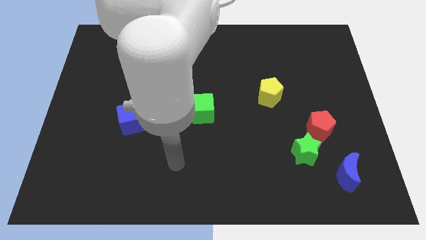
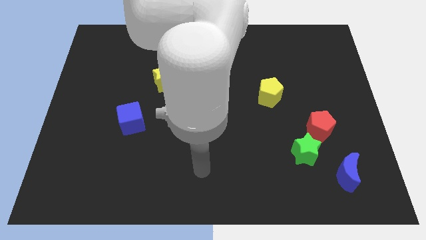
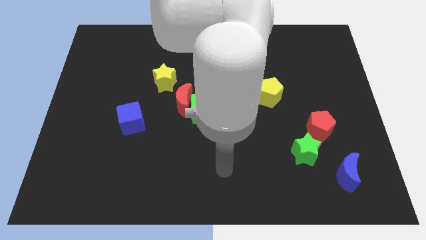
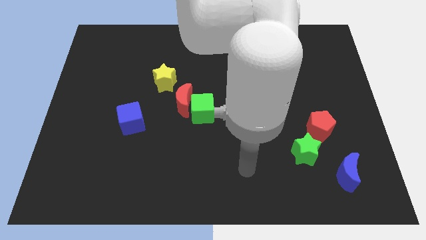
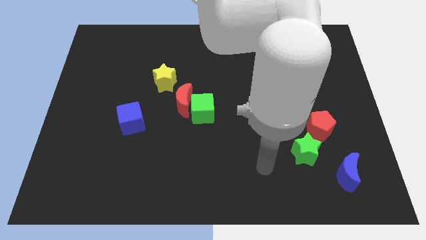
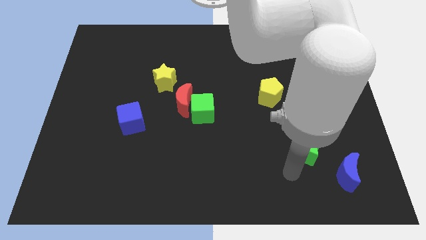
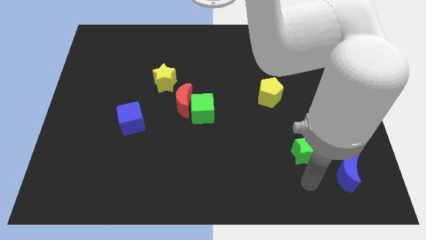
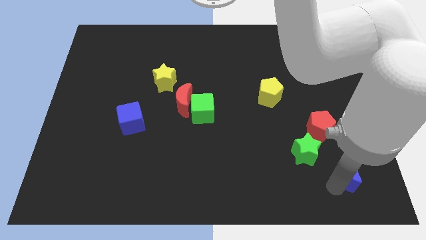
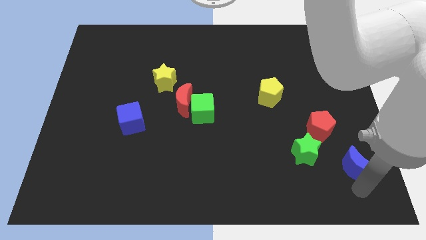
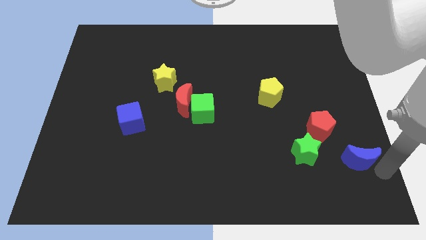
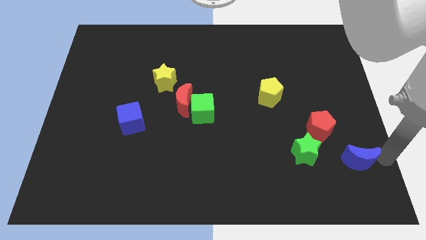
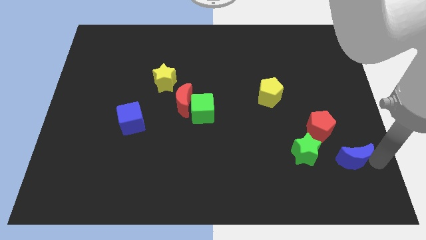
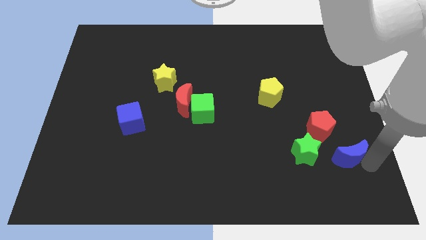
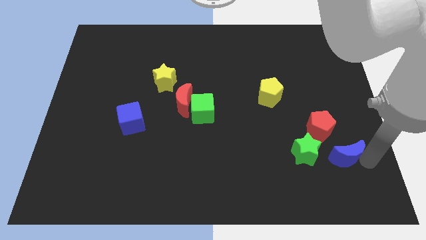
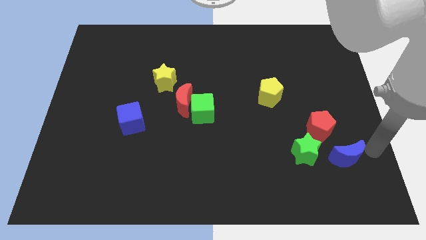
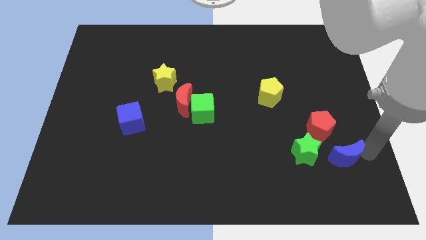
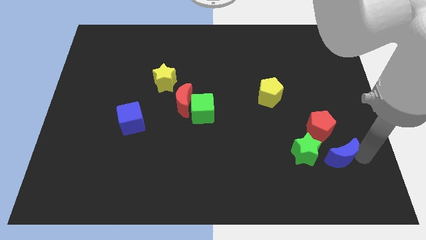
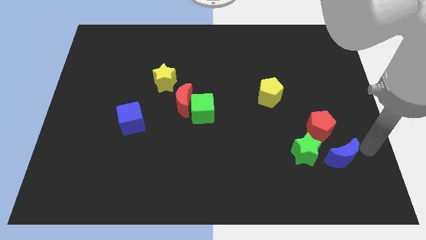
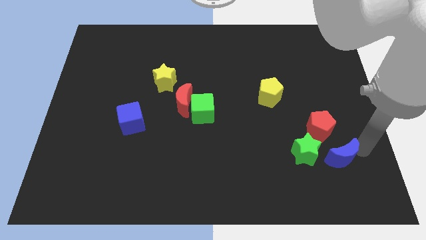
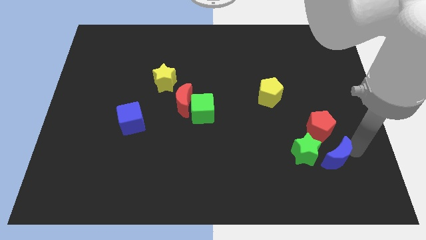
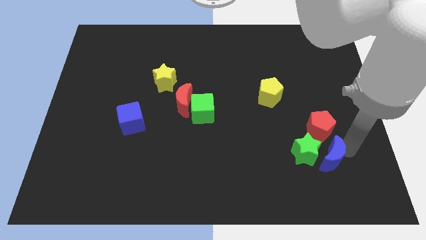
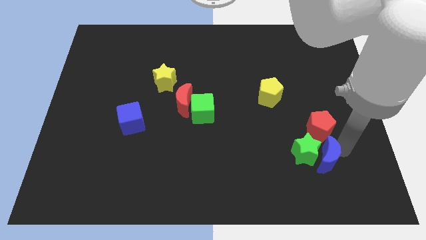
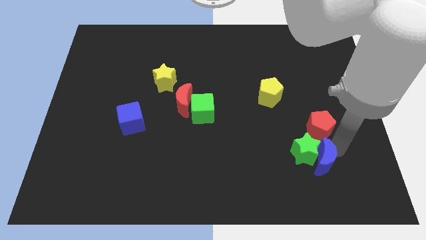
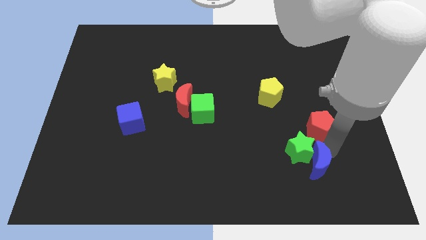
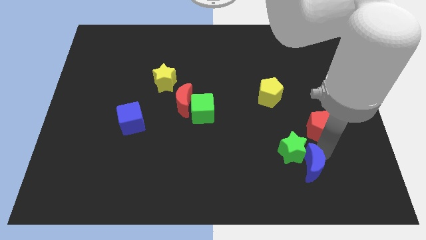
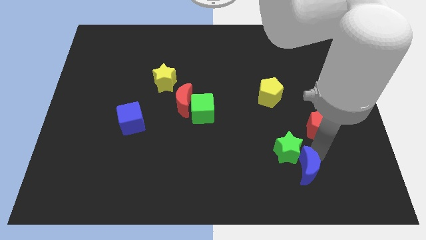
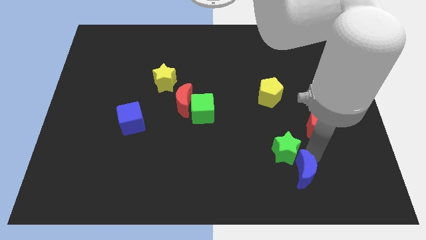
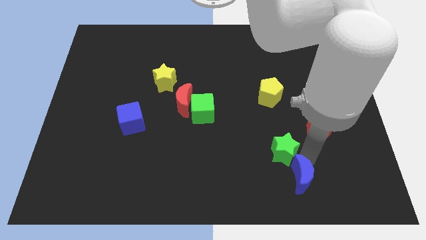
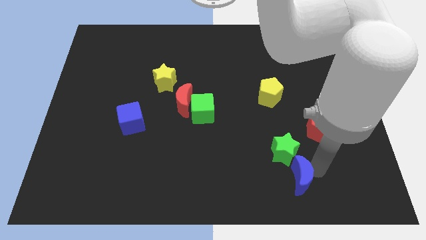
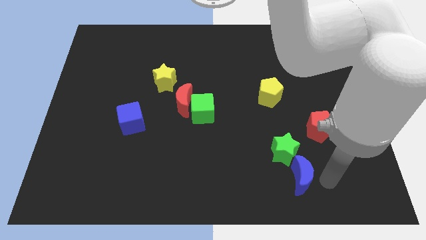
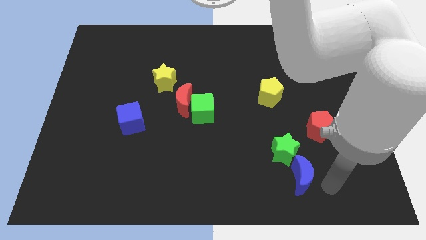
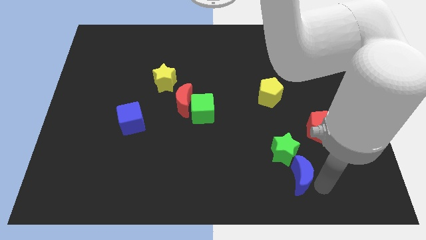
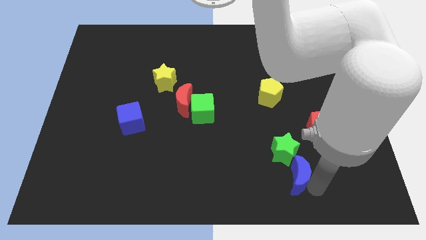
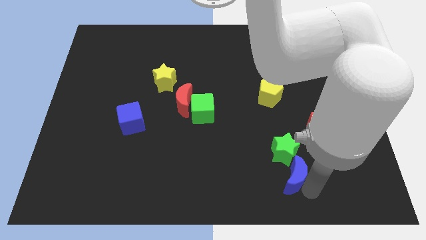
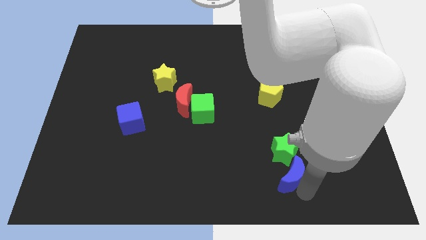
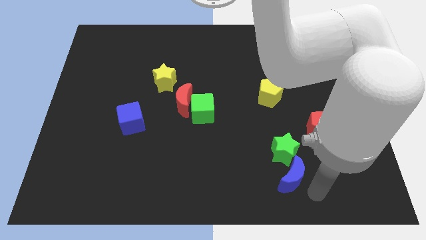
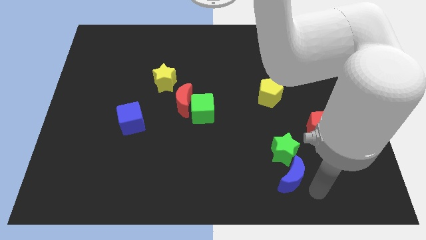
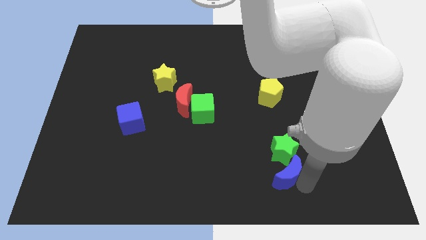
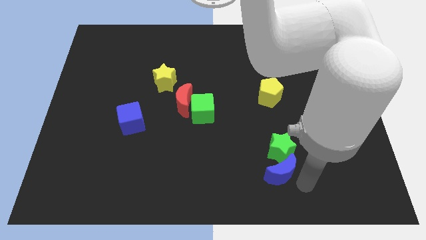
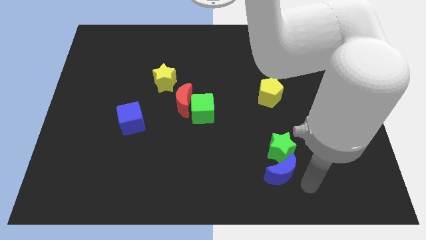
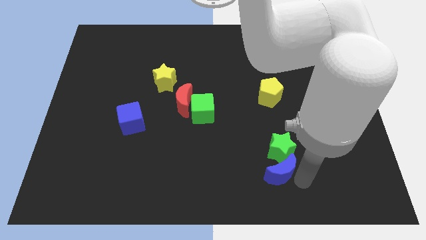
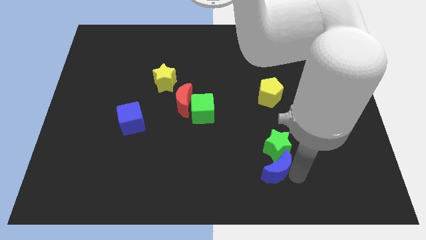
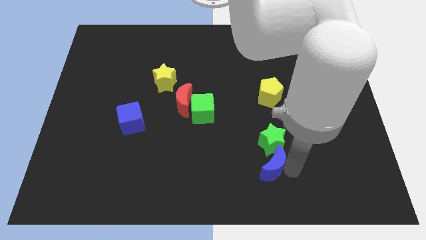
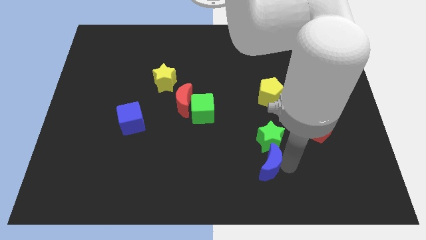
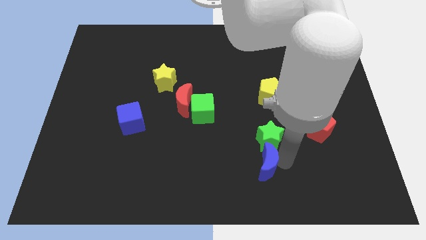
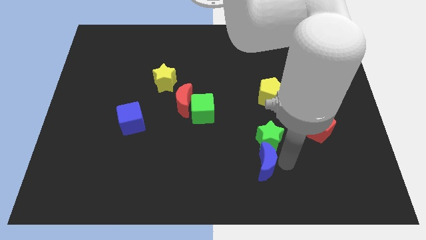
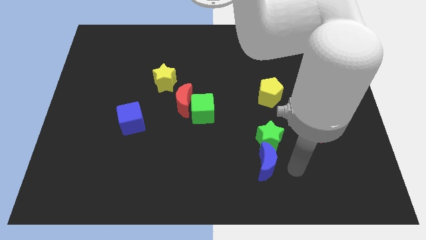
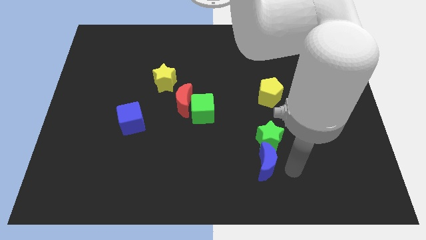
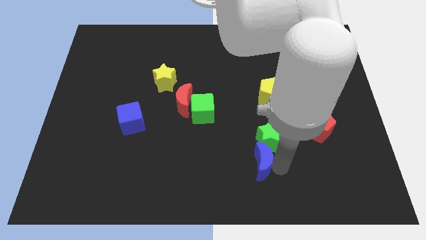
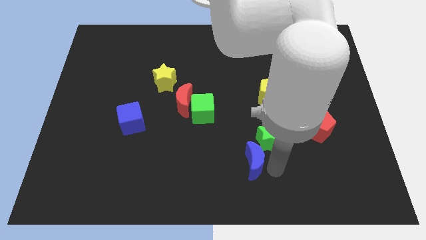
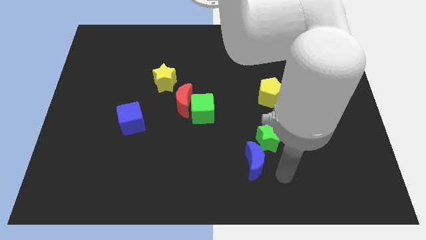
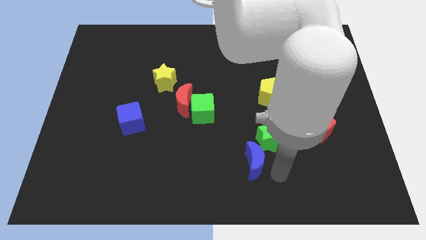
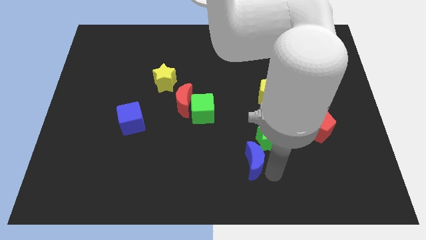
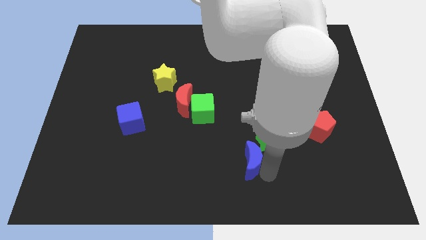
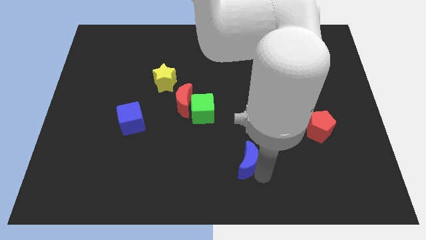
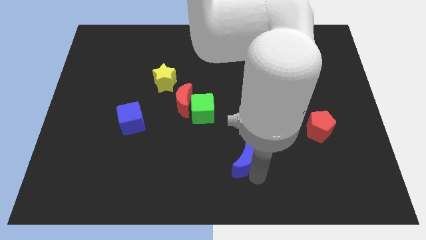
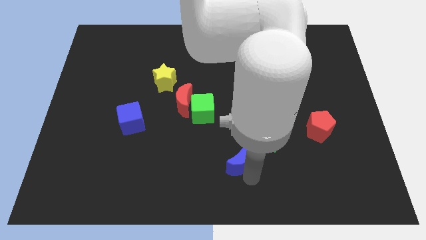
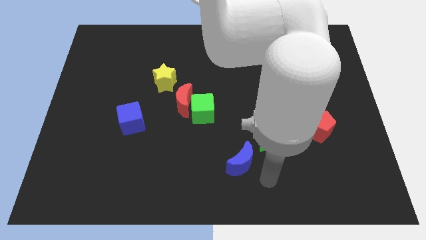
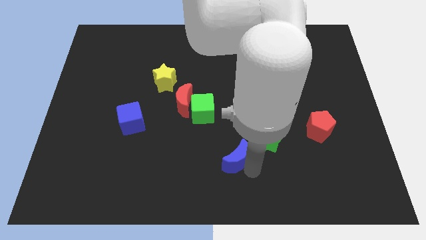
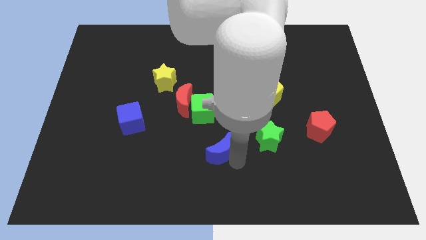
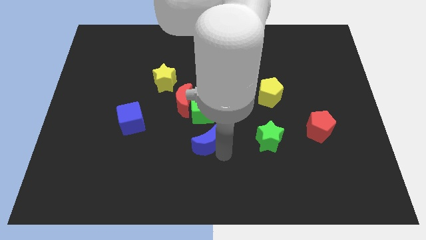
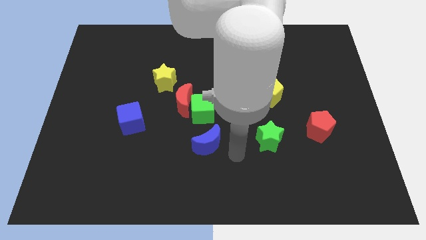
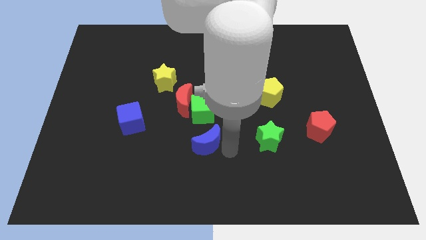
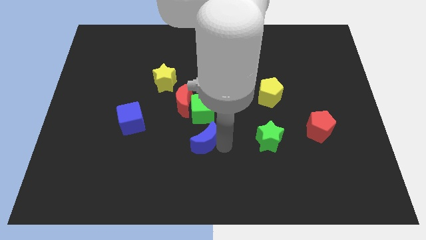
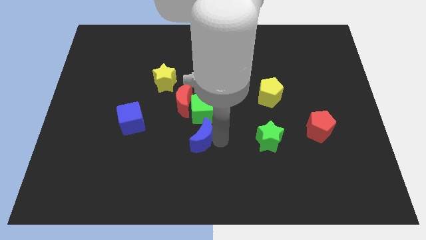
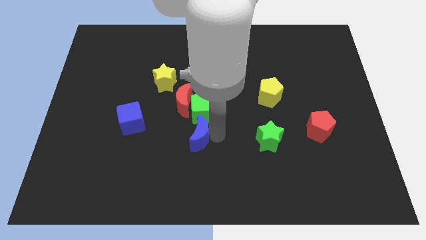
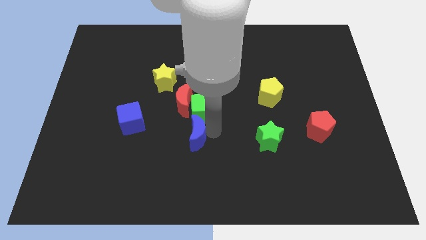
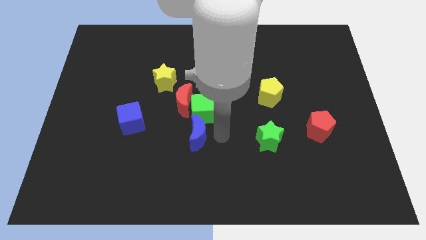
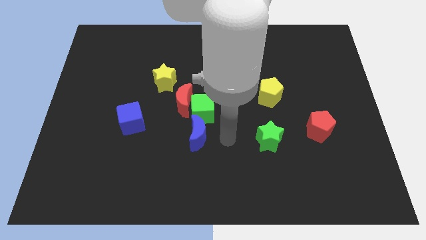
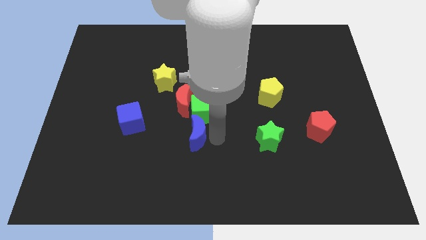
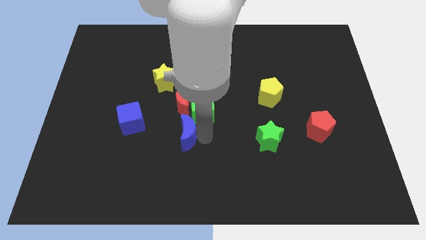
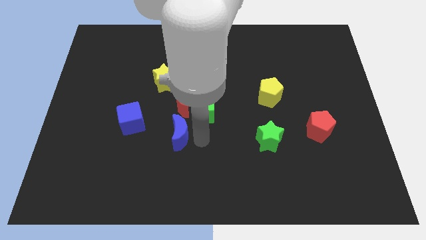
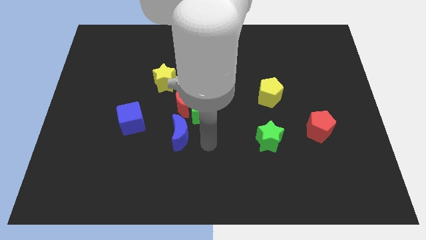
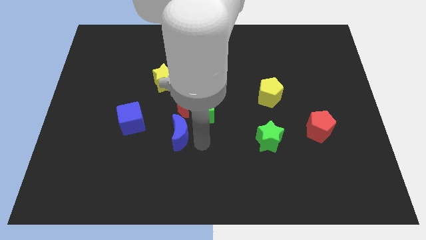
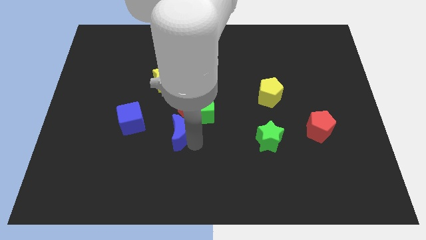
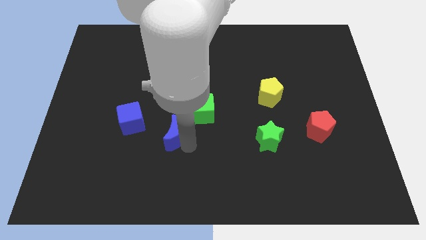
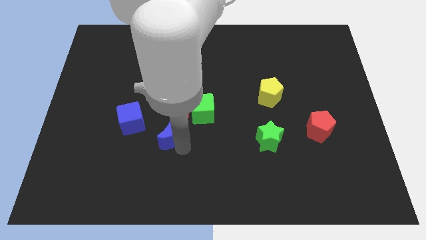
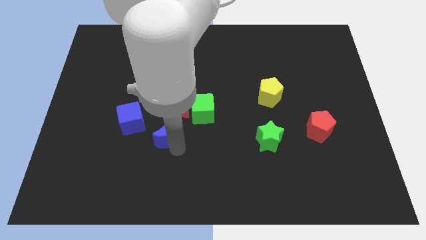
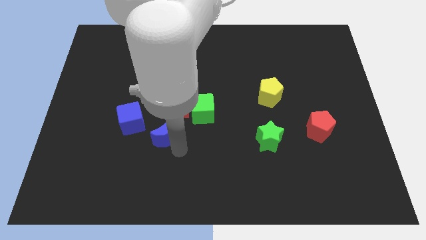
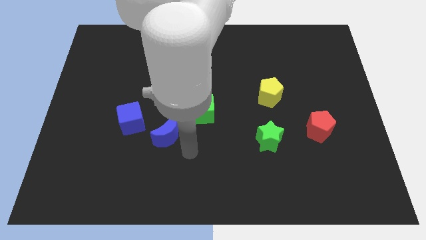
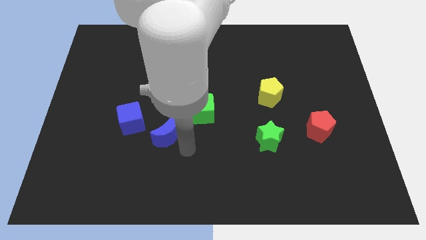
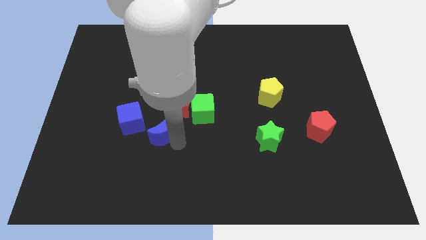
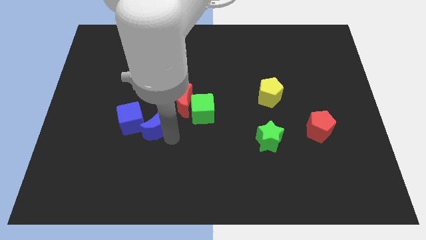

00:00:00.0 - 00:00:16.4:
push the blue moon close to the blue cube
